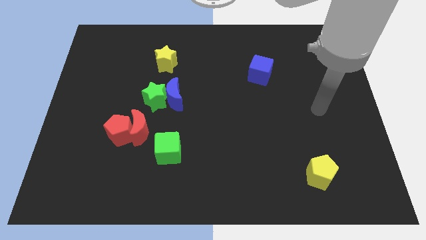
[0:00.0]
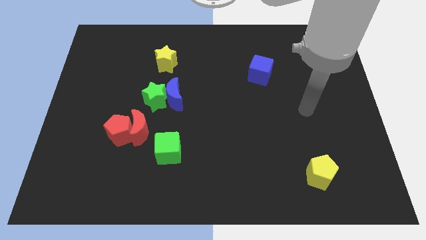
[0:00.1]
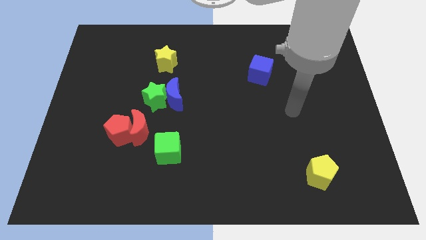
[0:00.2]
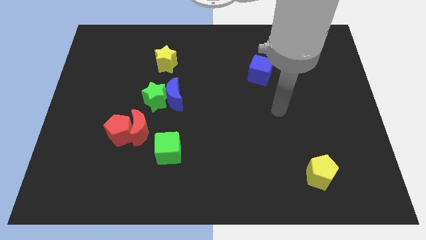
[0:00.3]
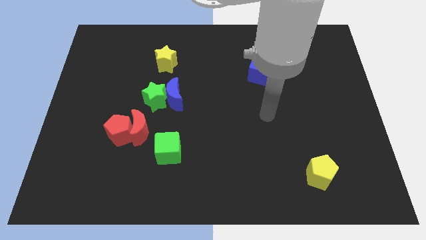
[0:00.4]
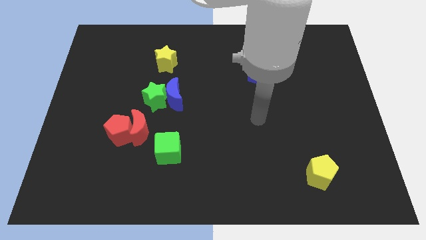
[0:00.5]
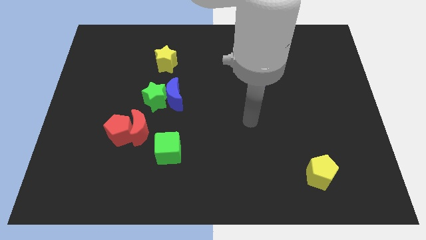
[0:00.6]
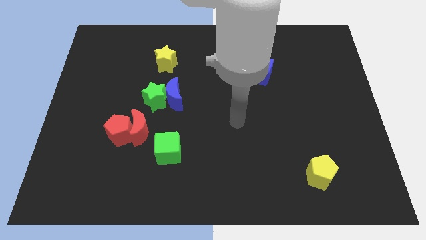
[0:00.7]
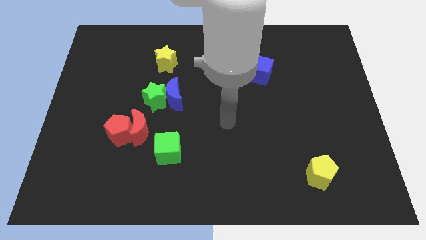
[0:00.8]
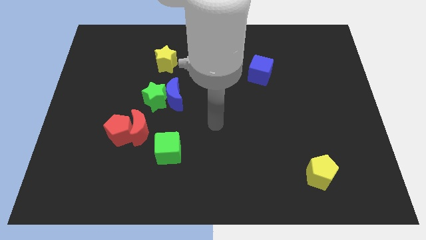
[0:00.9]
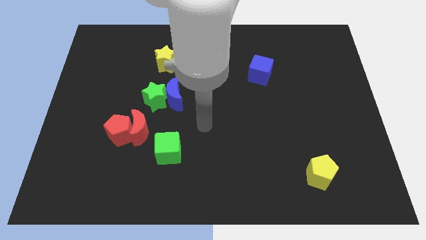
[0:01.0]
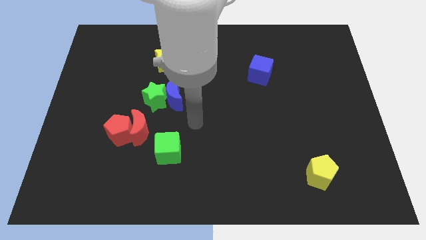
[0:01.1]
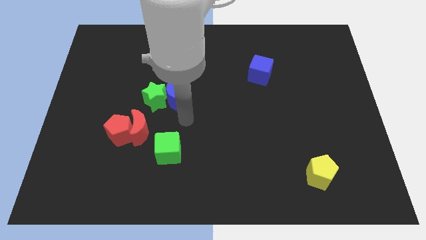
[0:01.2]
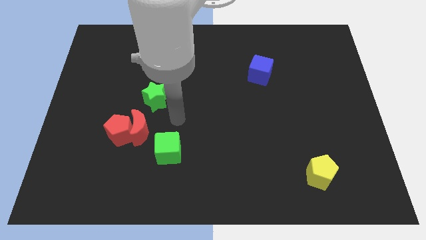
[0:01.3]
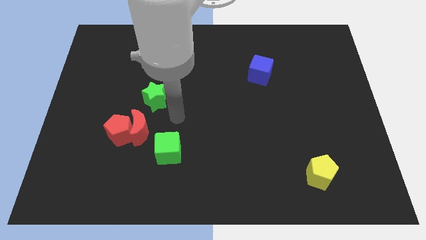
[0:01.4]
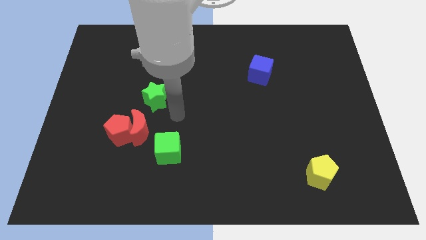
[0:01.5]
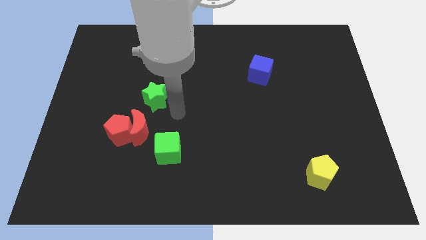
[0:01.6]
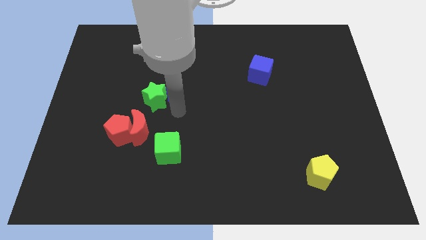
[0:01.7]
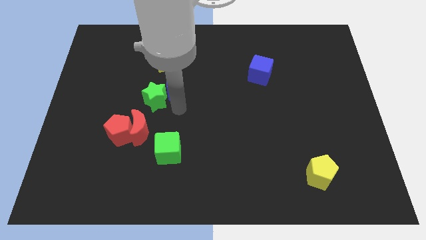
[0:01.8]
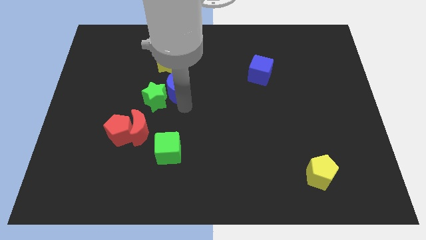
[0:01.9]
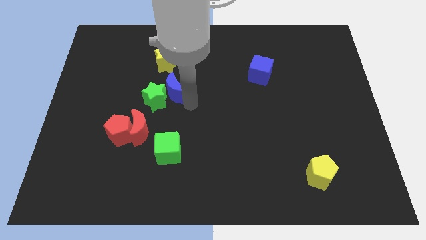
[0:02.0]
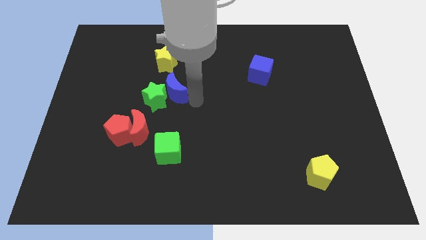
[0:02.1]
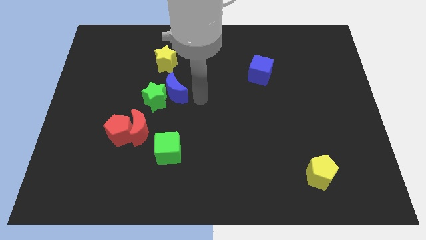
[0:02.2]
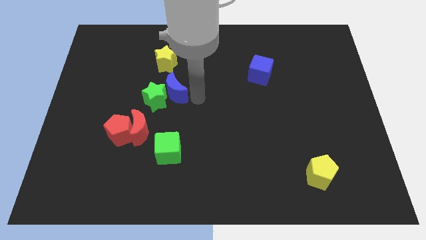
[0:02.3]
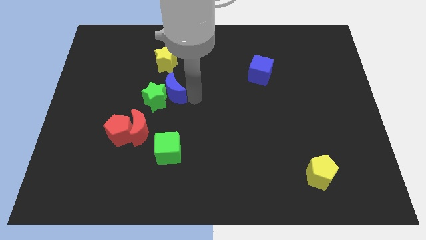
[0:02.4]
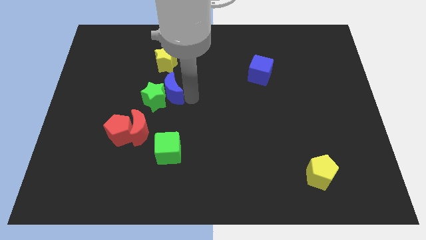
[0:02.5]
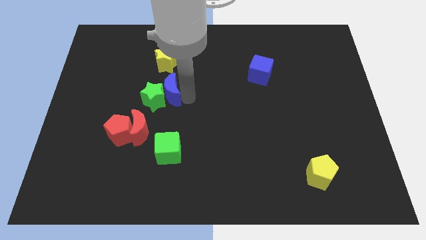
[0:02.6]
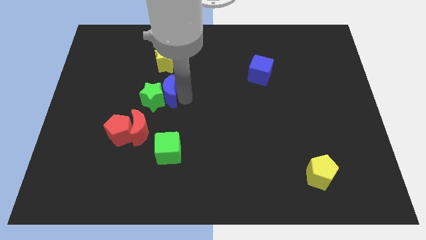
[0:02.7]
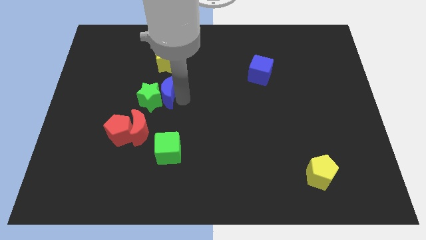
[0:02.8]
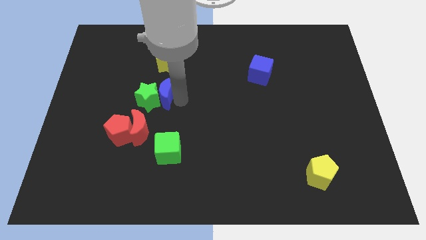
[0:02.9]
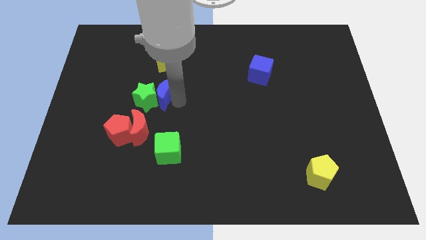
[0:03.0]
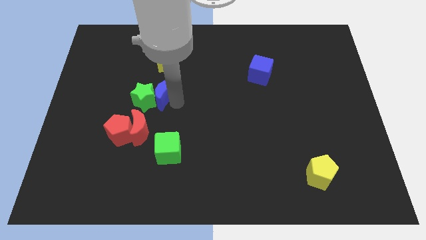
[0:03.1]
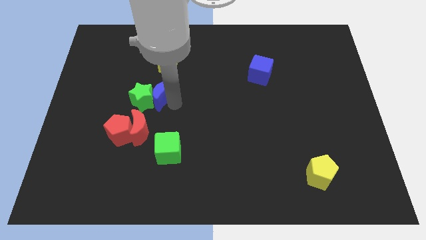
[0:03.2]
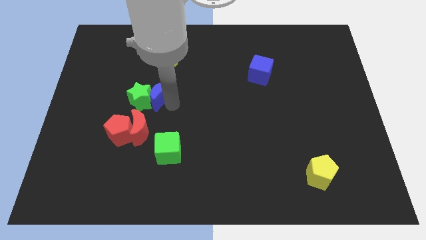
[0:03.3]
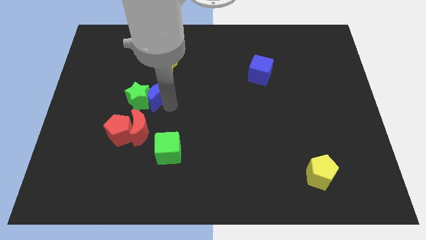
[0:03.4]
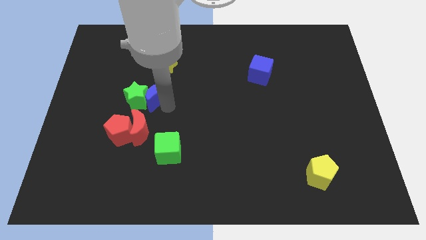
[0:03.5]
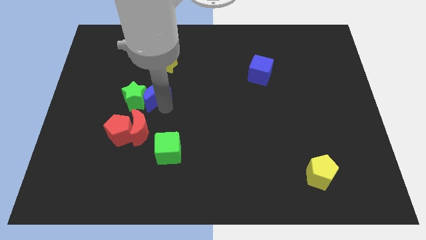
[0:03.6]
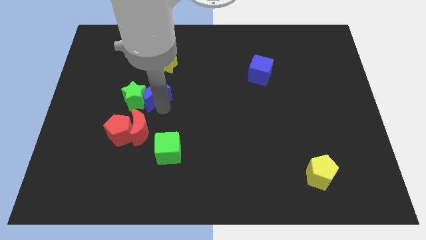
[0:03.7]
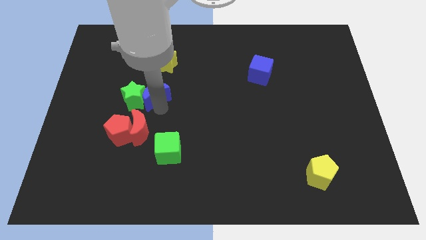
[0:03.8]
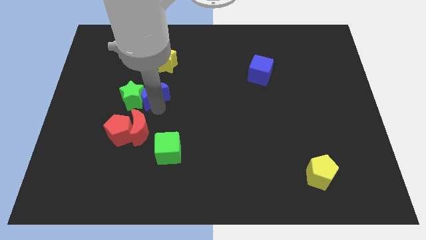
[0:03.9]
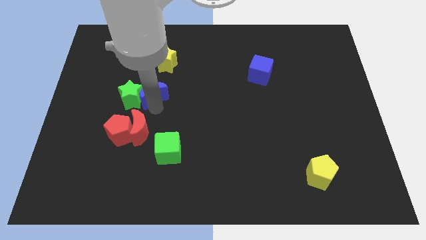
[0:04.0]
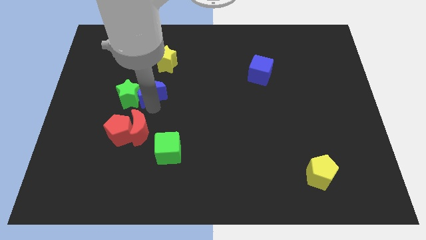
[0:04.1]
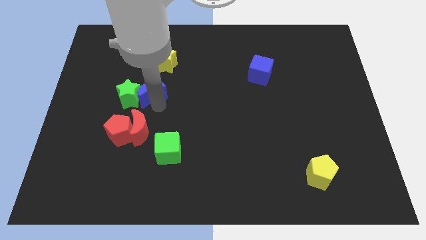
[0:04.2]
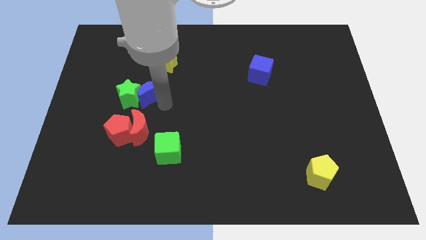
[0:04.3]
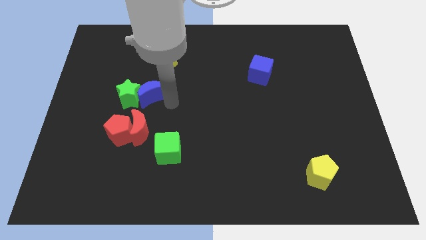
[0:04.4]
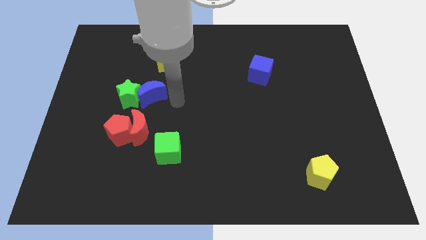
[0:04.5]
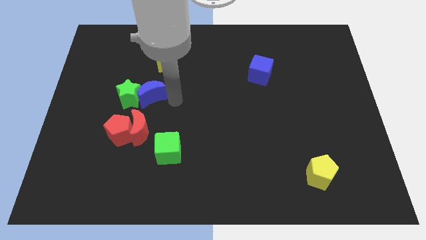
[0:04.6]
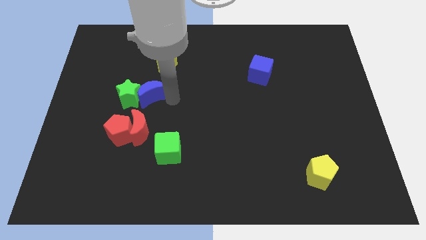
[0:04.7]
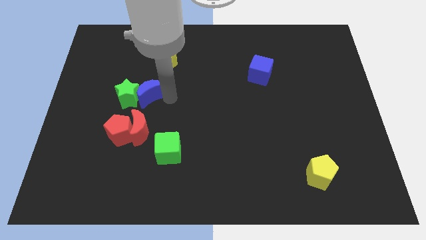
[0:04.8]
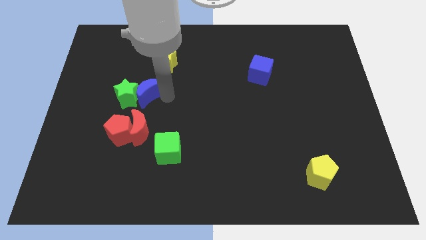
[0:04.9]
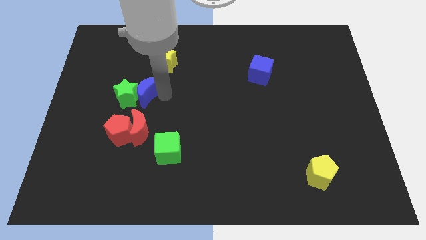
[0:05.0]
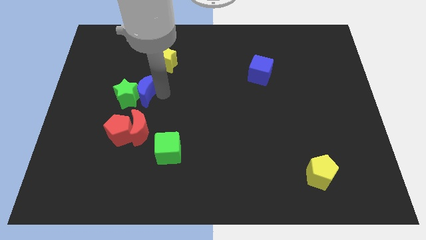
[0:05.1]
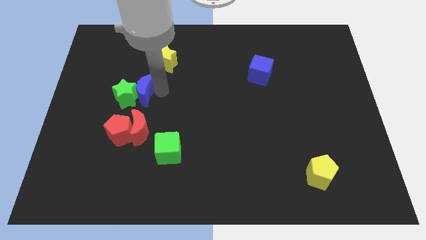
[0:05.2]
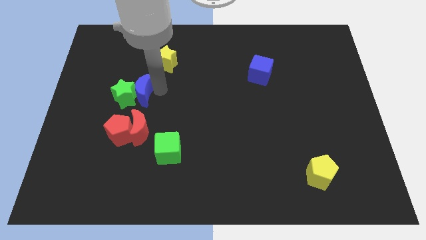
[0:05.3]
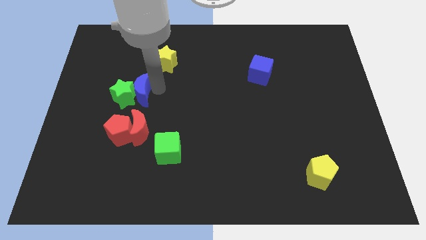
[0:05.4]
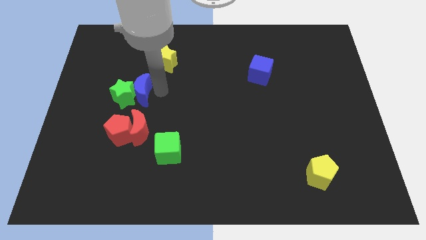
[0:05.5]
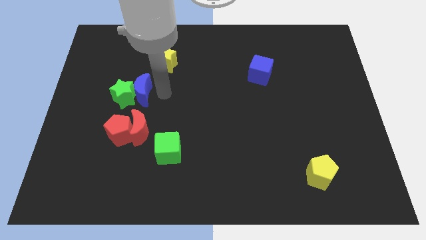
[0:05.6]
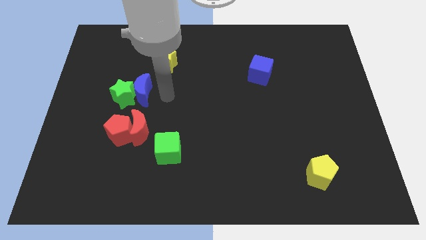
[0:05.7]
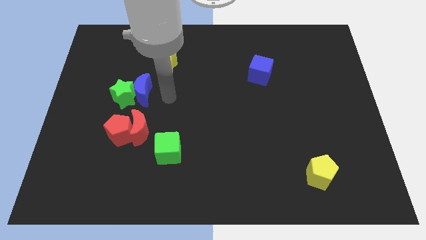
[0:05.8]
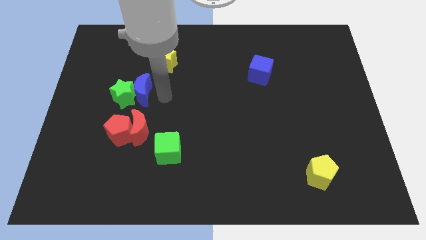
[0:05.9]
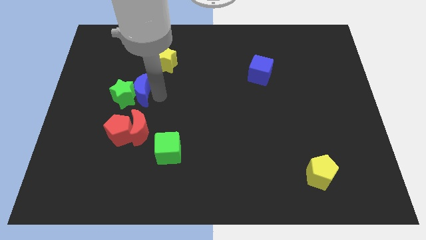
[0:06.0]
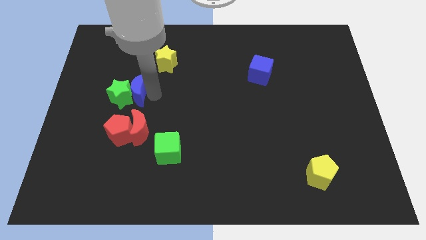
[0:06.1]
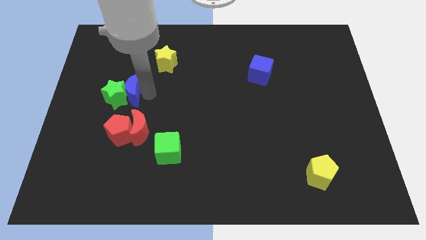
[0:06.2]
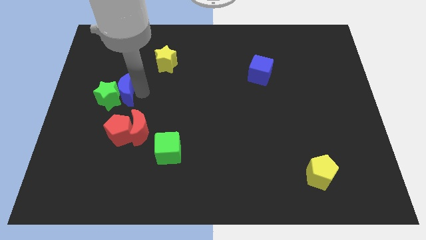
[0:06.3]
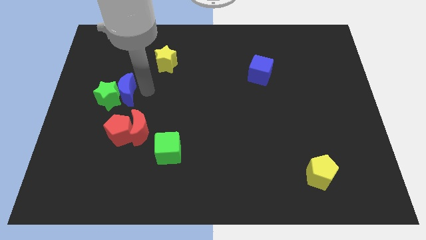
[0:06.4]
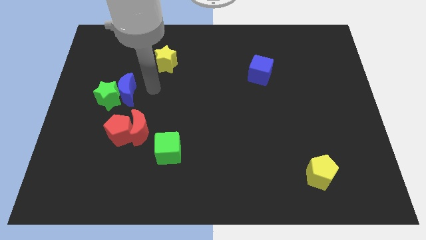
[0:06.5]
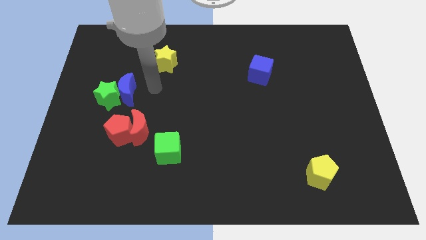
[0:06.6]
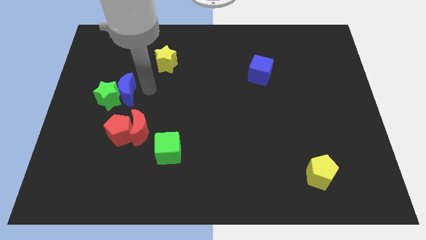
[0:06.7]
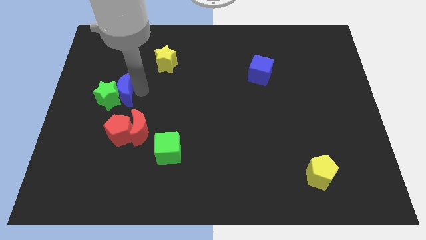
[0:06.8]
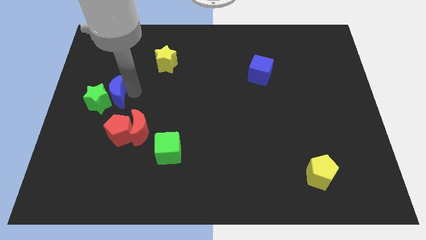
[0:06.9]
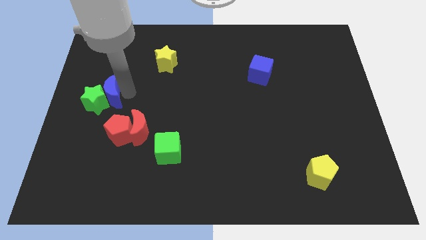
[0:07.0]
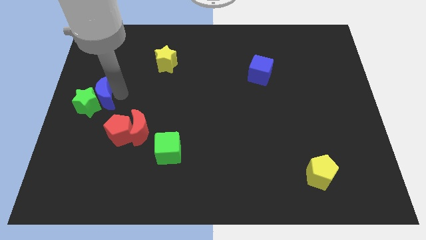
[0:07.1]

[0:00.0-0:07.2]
push the blue moon to the left side
